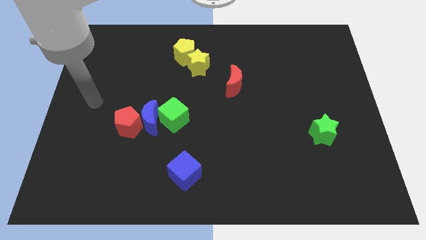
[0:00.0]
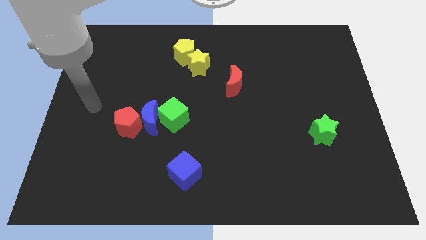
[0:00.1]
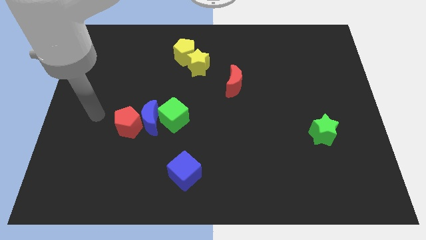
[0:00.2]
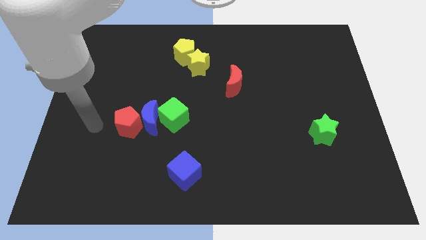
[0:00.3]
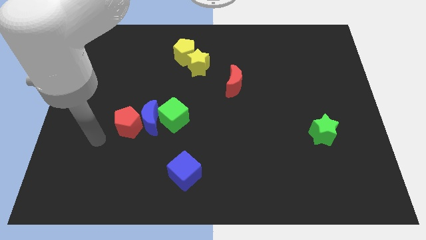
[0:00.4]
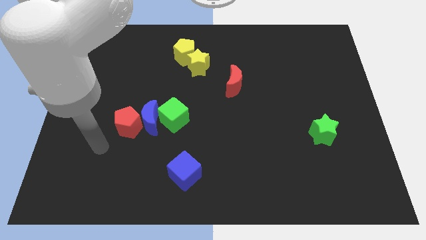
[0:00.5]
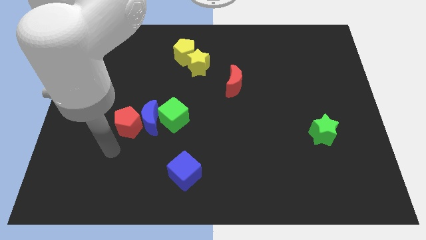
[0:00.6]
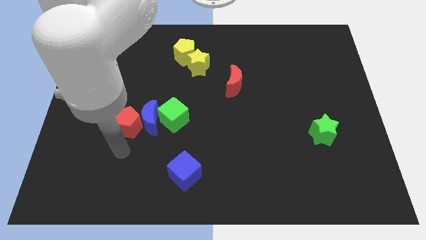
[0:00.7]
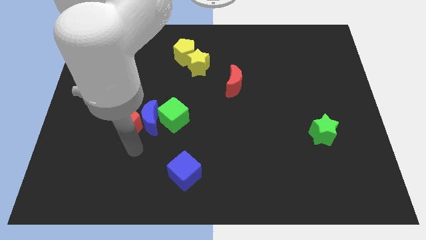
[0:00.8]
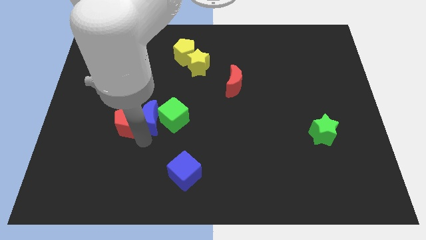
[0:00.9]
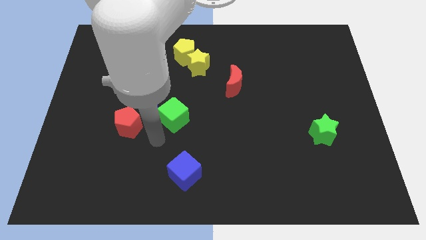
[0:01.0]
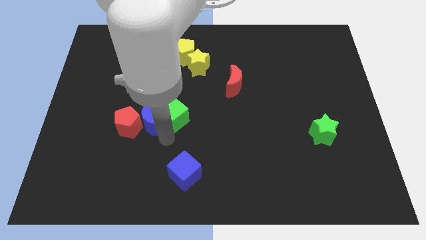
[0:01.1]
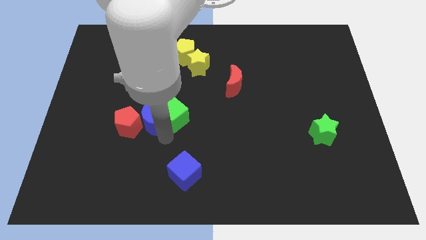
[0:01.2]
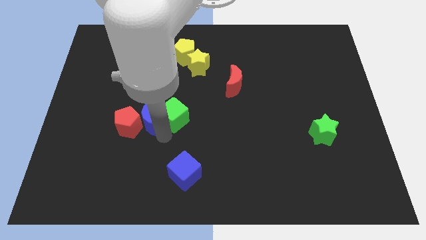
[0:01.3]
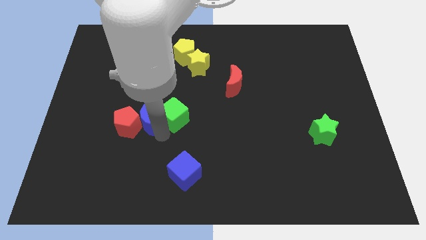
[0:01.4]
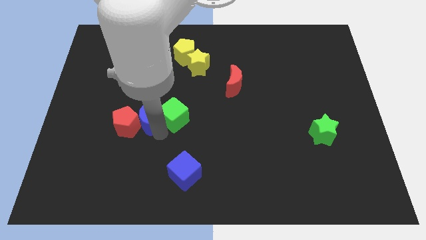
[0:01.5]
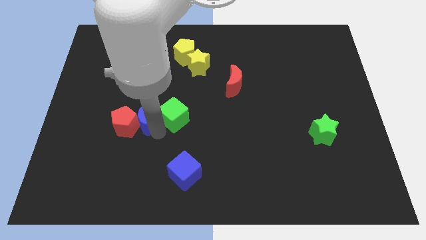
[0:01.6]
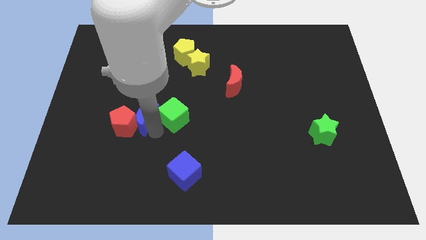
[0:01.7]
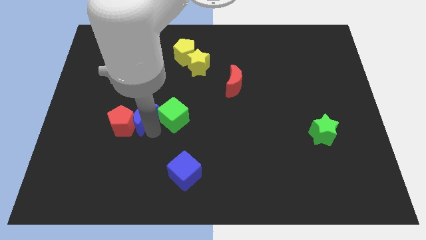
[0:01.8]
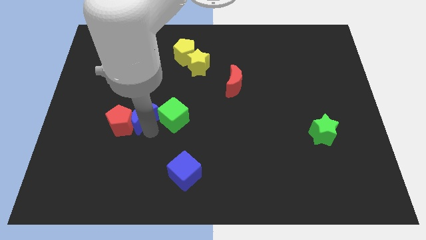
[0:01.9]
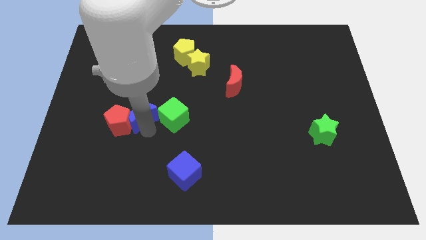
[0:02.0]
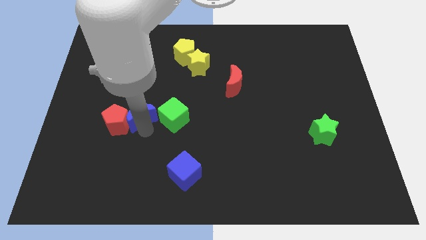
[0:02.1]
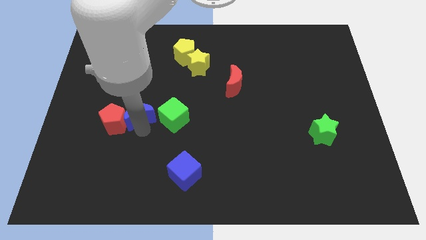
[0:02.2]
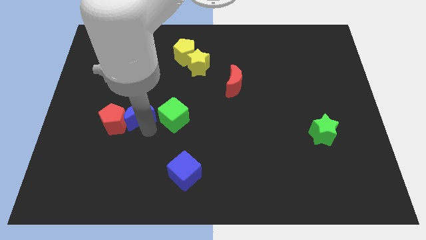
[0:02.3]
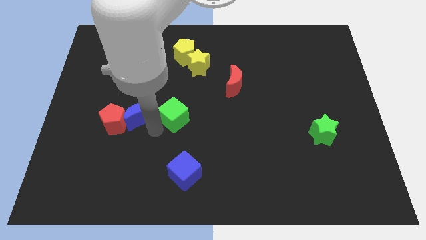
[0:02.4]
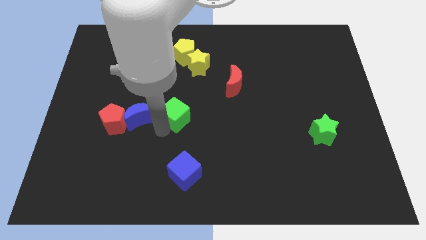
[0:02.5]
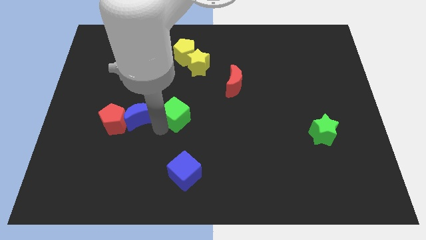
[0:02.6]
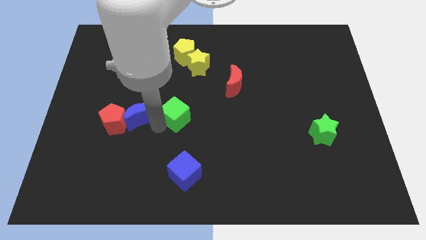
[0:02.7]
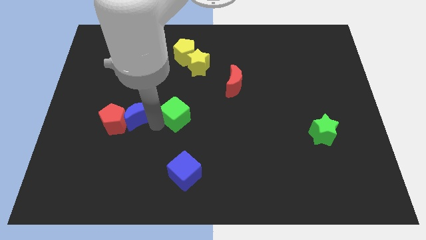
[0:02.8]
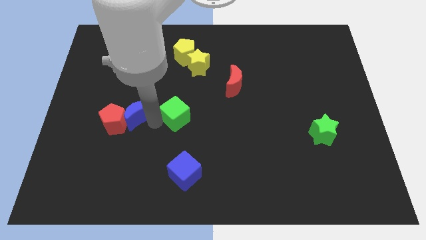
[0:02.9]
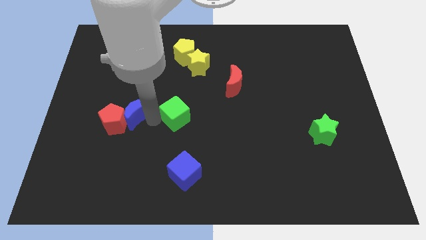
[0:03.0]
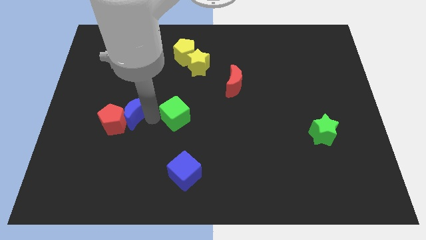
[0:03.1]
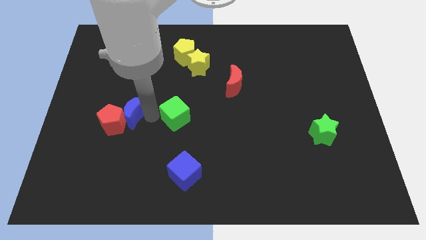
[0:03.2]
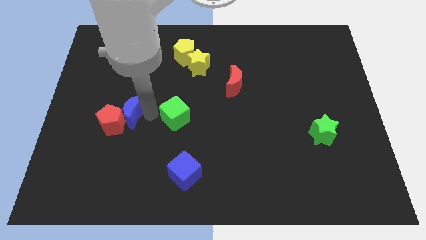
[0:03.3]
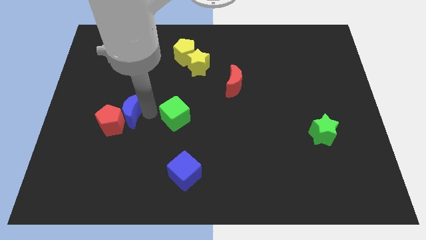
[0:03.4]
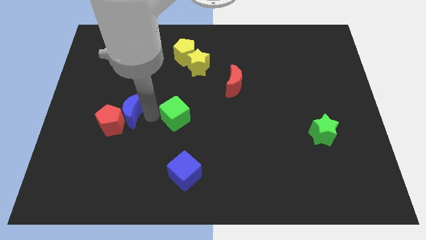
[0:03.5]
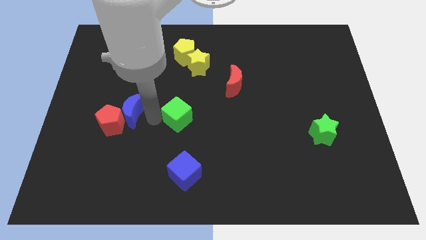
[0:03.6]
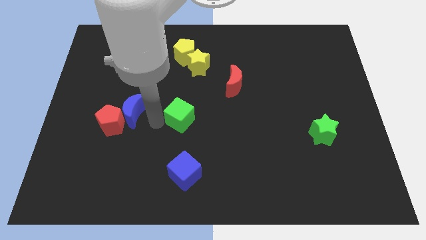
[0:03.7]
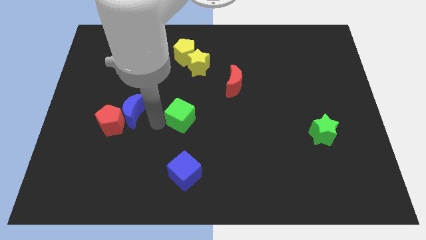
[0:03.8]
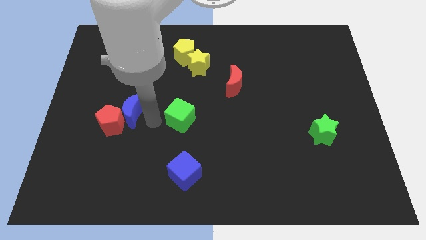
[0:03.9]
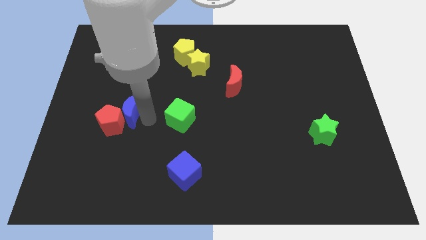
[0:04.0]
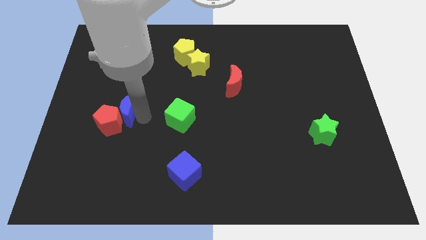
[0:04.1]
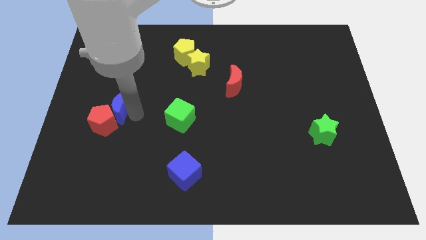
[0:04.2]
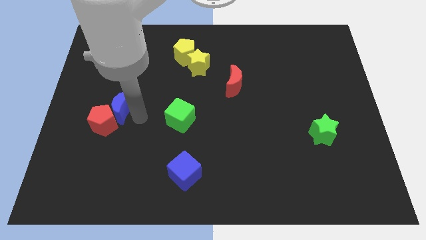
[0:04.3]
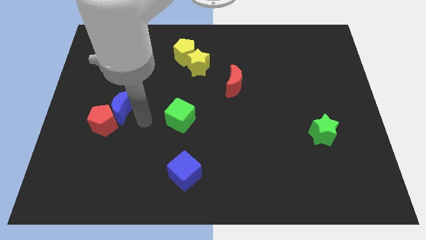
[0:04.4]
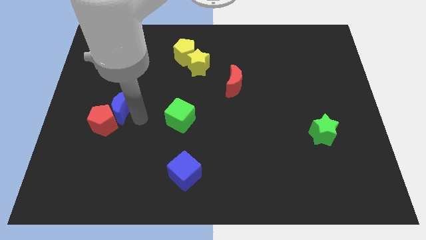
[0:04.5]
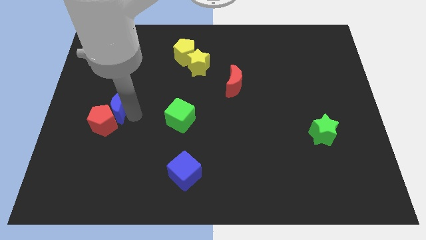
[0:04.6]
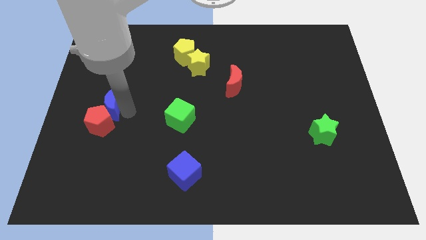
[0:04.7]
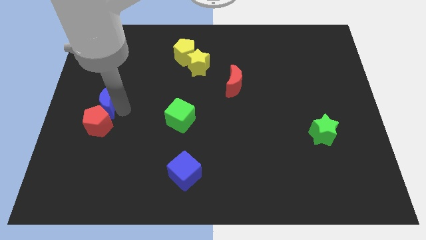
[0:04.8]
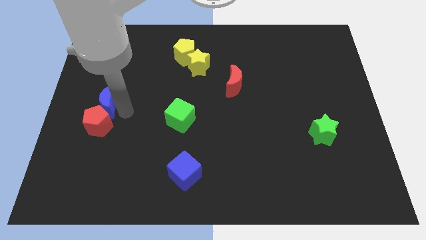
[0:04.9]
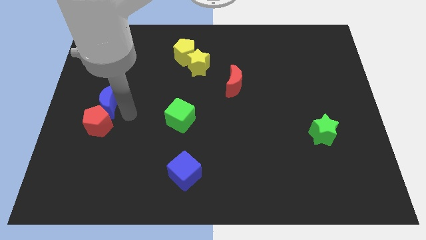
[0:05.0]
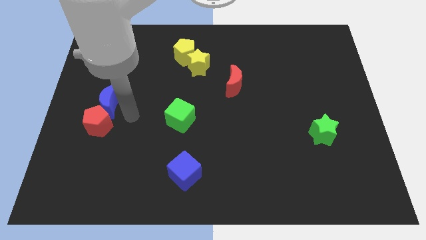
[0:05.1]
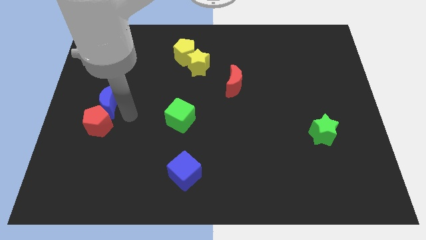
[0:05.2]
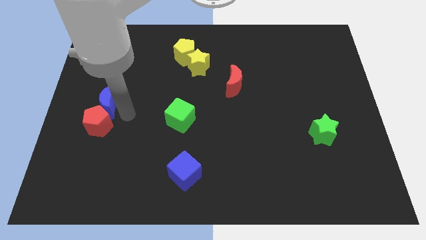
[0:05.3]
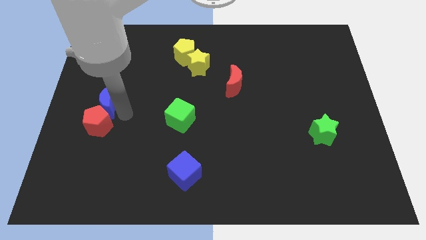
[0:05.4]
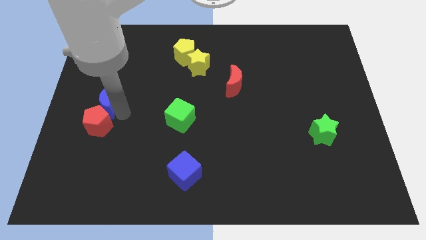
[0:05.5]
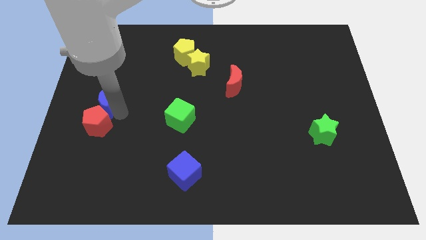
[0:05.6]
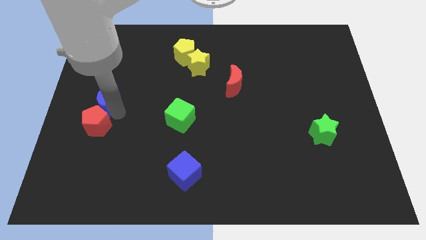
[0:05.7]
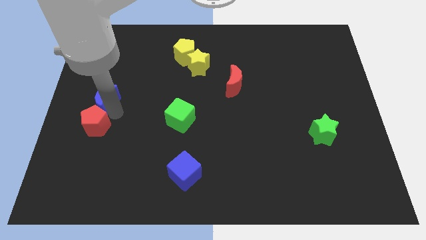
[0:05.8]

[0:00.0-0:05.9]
pull the blue moon apart from the red pentagon and green cube

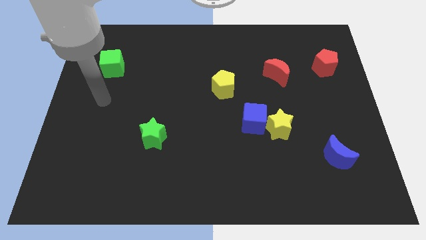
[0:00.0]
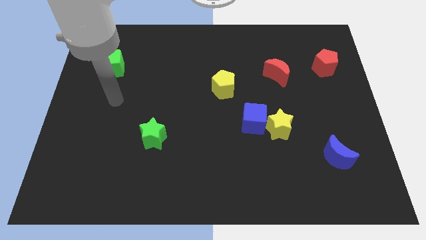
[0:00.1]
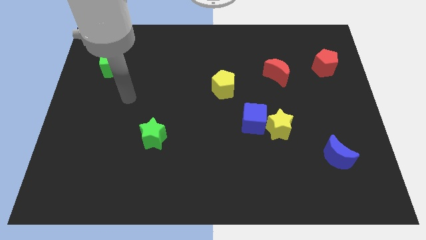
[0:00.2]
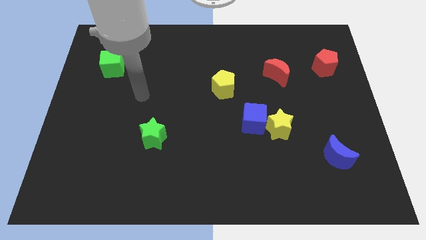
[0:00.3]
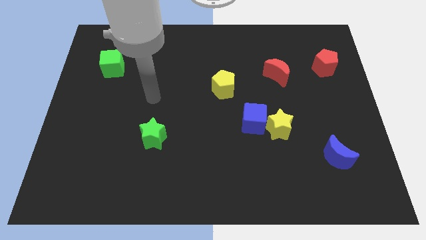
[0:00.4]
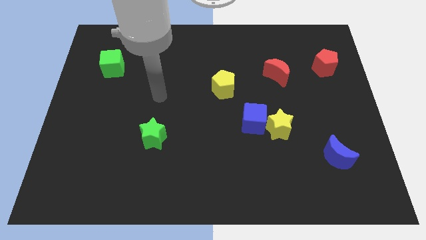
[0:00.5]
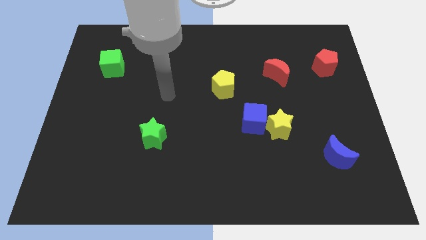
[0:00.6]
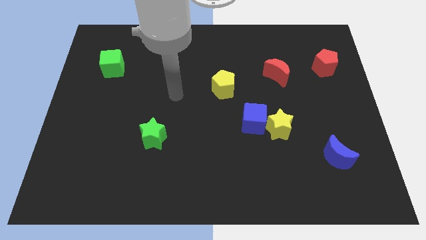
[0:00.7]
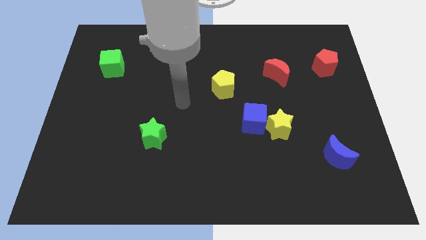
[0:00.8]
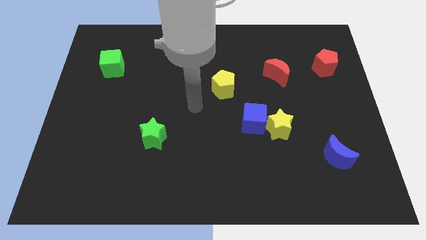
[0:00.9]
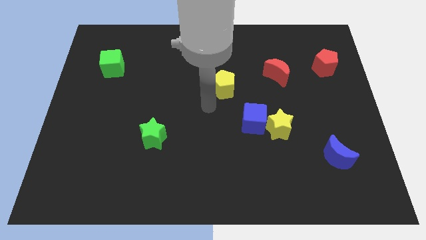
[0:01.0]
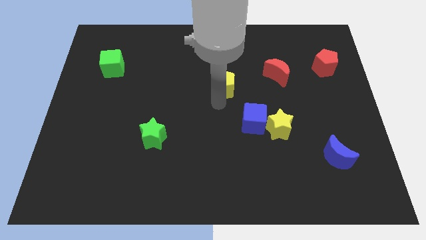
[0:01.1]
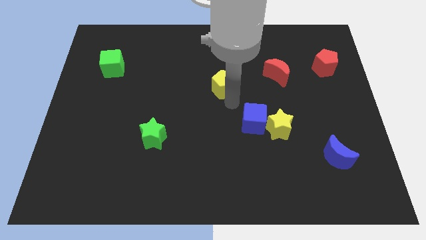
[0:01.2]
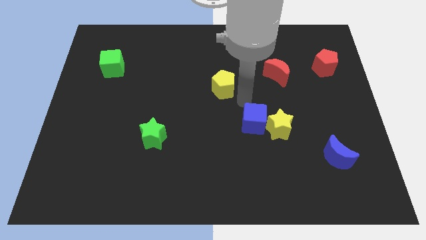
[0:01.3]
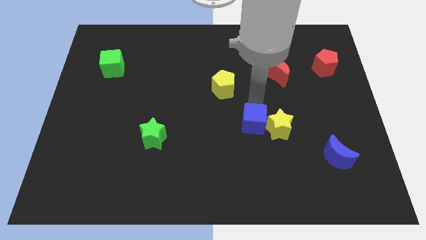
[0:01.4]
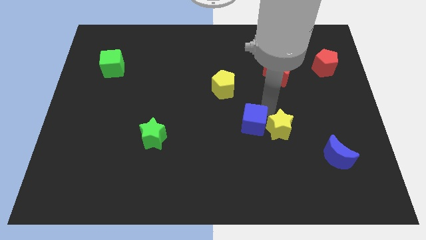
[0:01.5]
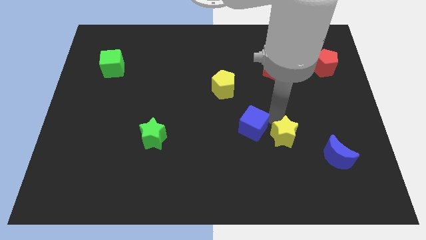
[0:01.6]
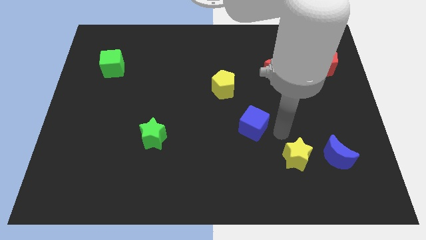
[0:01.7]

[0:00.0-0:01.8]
move the blue cube away from the yellow star

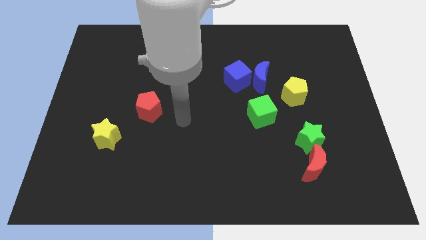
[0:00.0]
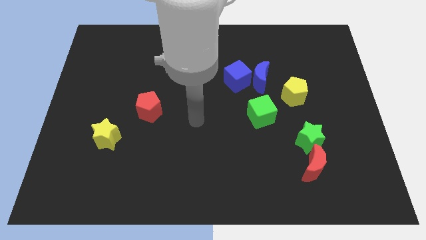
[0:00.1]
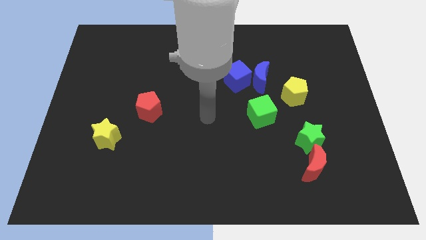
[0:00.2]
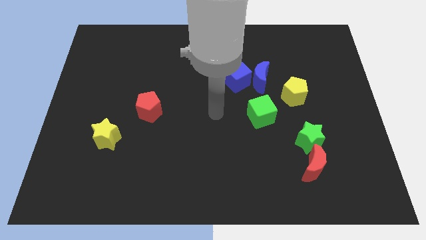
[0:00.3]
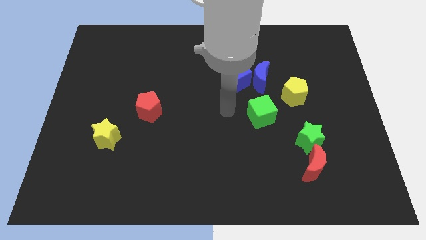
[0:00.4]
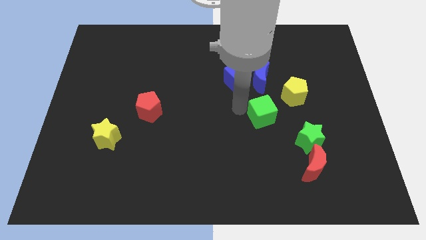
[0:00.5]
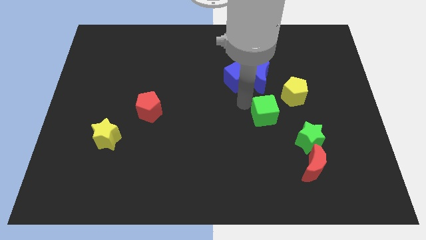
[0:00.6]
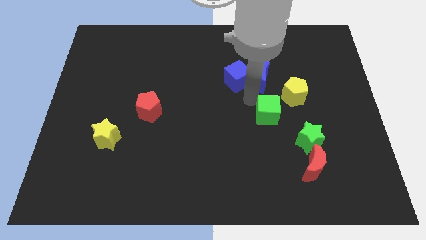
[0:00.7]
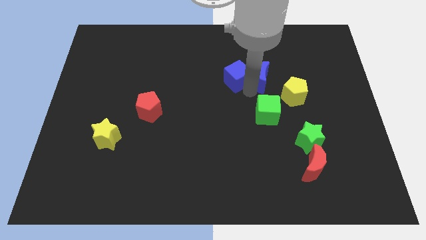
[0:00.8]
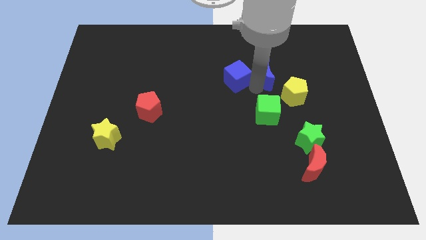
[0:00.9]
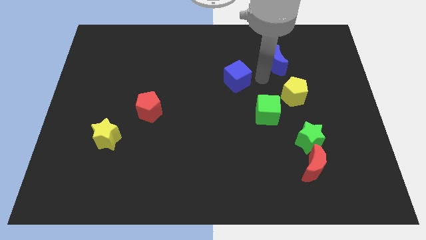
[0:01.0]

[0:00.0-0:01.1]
separate the blue cube from the blue moon

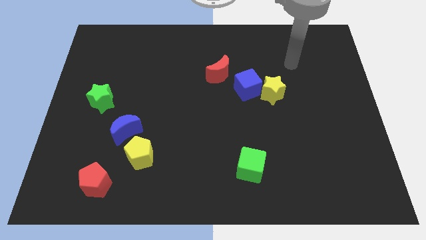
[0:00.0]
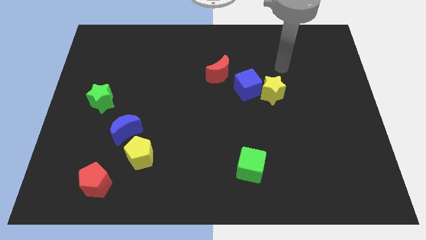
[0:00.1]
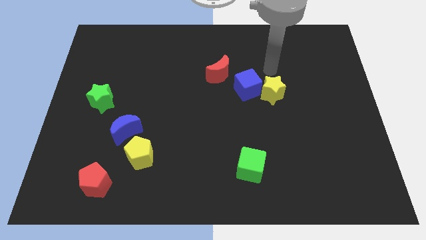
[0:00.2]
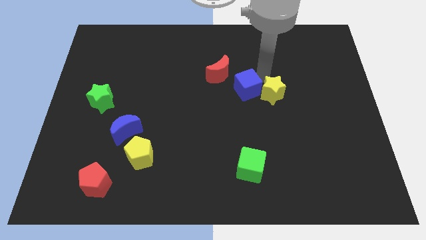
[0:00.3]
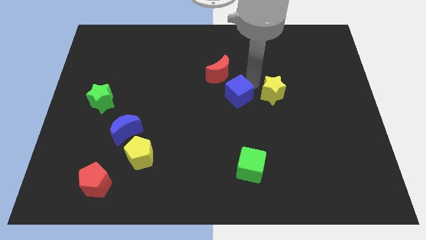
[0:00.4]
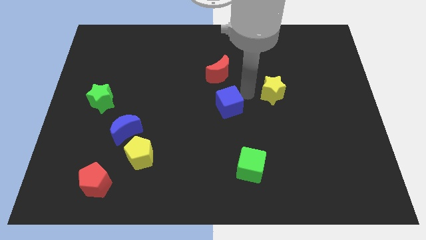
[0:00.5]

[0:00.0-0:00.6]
move the yellow star away from the blue cube
